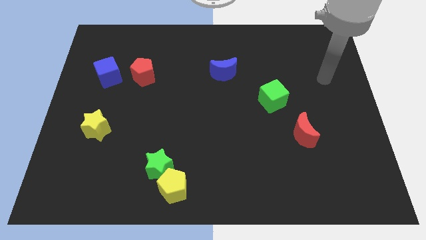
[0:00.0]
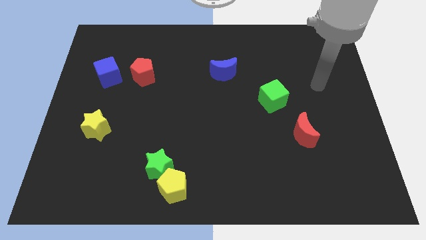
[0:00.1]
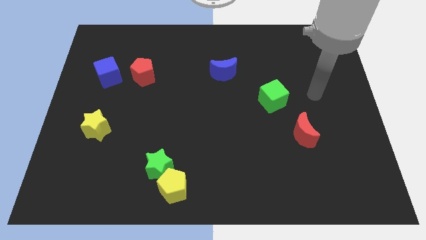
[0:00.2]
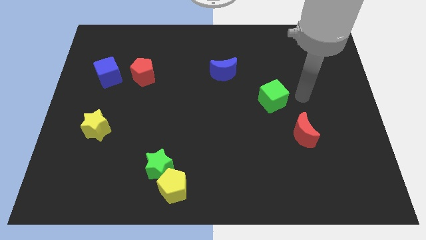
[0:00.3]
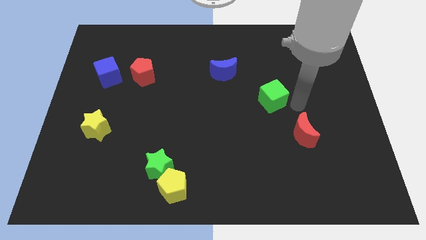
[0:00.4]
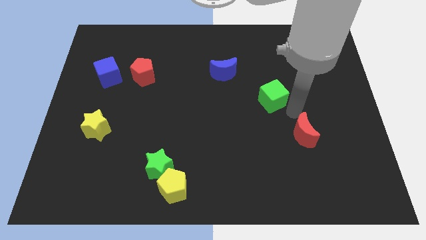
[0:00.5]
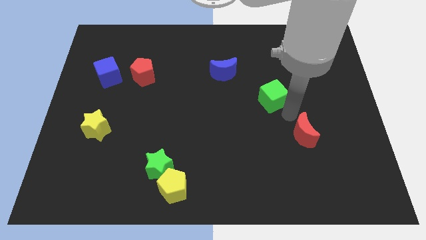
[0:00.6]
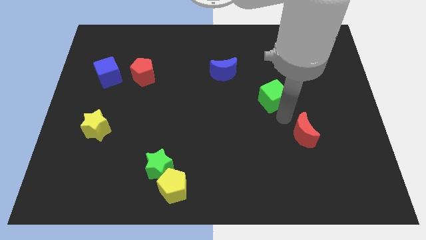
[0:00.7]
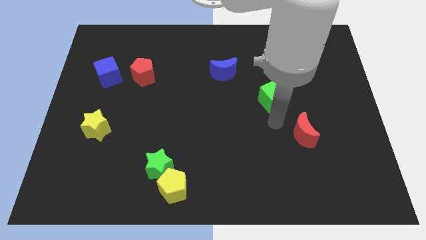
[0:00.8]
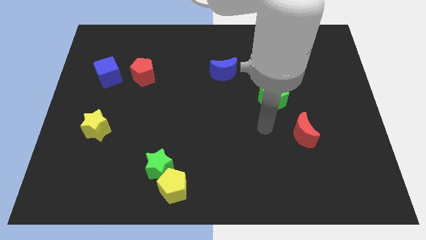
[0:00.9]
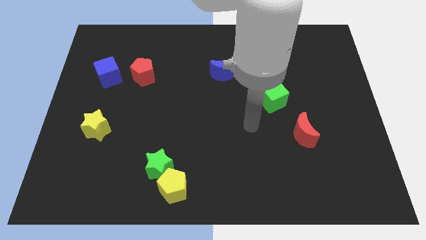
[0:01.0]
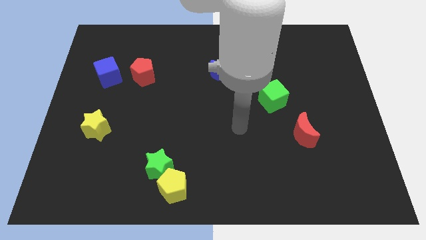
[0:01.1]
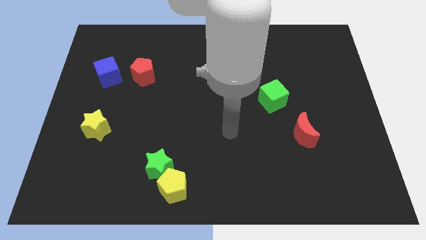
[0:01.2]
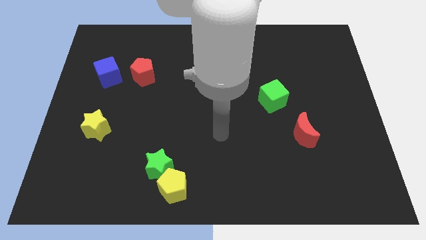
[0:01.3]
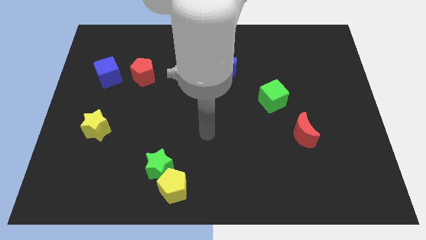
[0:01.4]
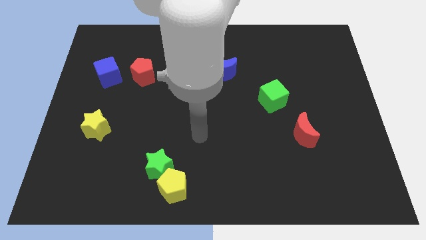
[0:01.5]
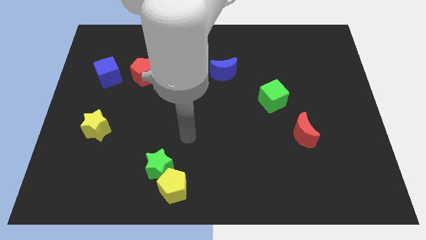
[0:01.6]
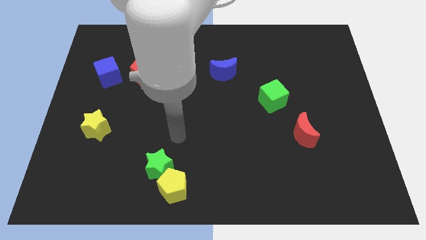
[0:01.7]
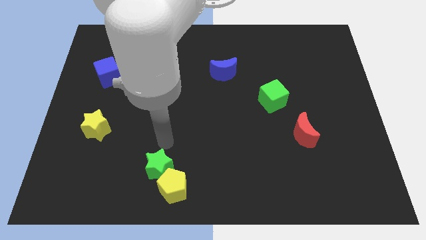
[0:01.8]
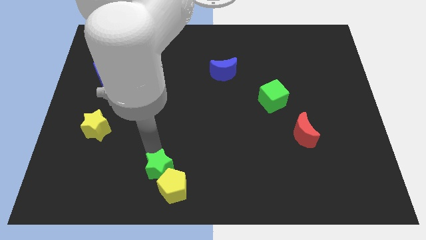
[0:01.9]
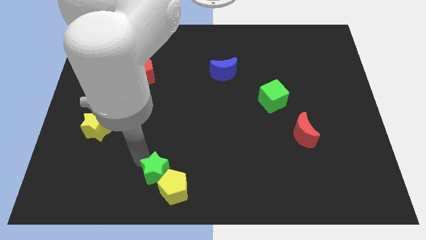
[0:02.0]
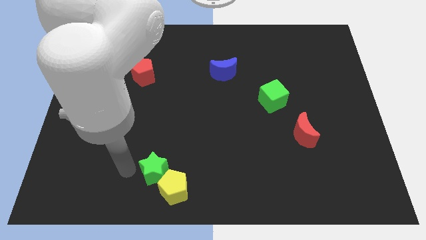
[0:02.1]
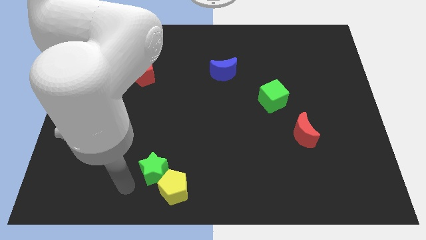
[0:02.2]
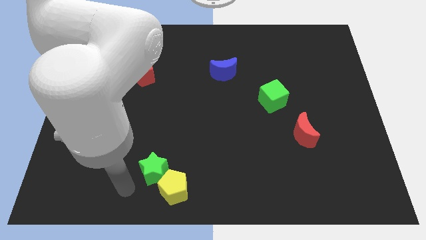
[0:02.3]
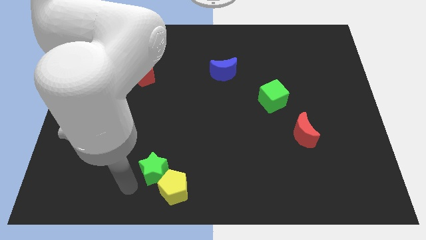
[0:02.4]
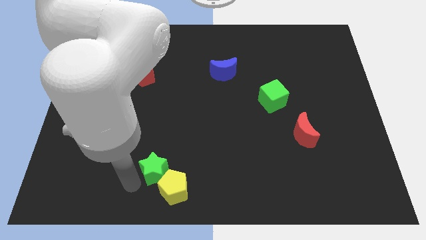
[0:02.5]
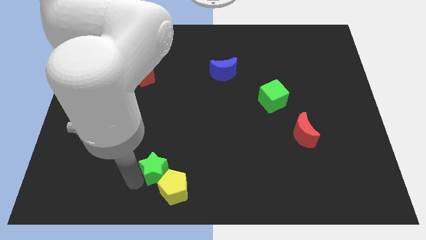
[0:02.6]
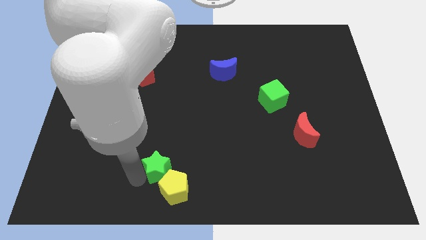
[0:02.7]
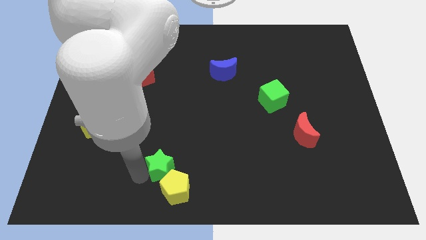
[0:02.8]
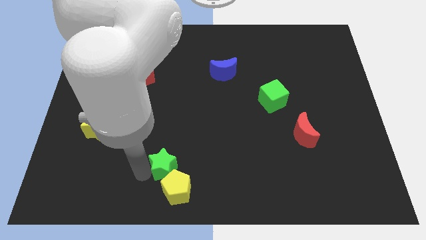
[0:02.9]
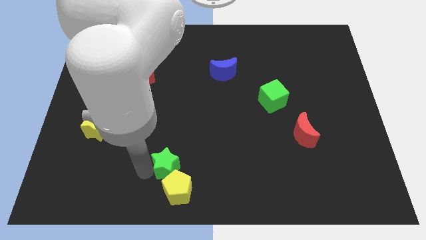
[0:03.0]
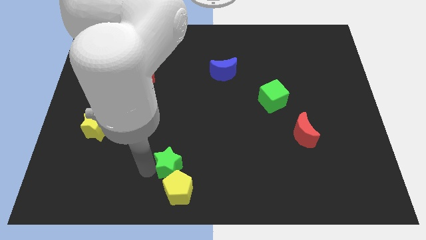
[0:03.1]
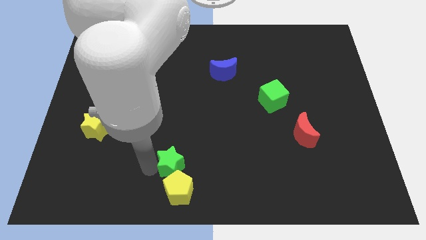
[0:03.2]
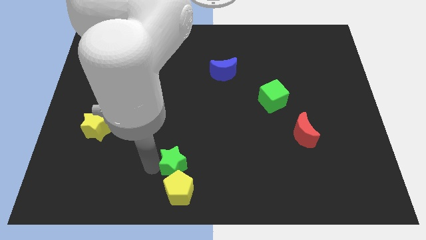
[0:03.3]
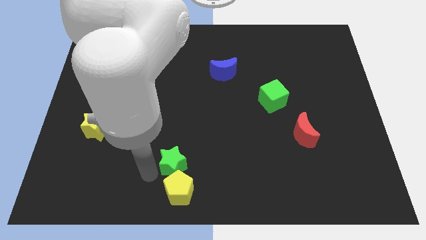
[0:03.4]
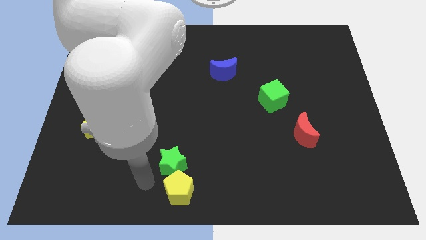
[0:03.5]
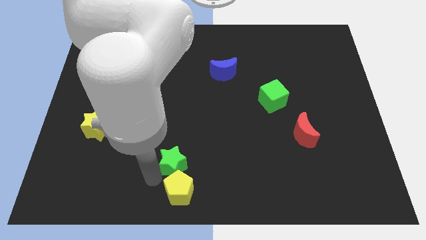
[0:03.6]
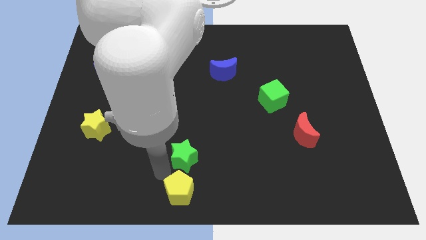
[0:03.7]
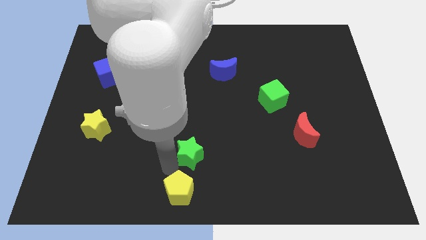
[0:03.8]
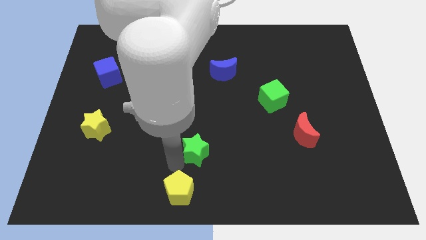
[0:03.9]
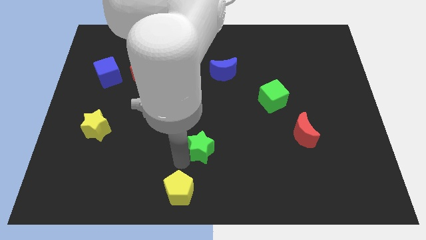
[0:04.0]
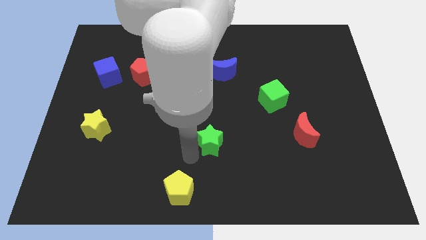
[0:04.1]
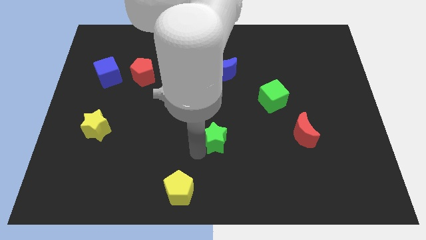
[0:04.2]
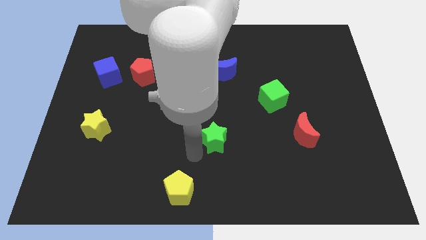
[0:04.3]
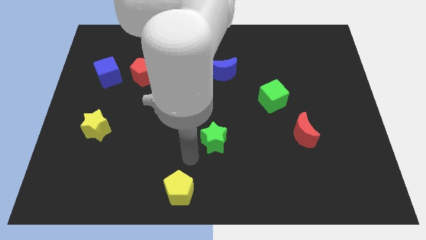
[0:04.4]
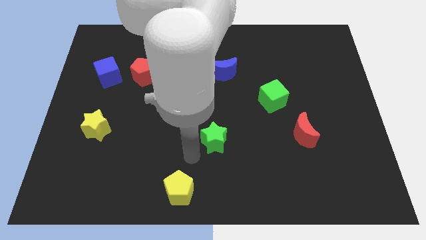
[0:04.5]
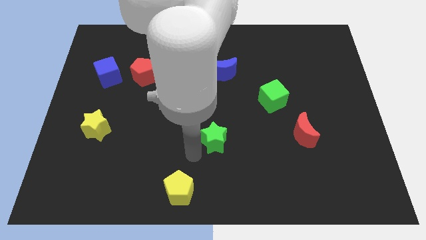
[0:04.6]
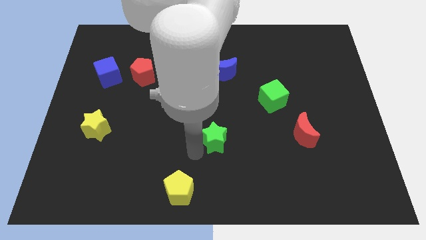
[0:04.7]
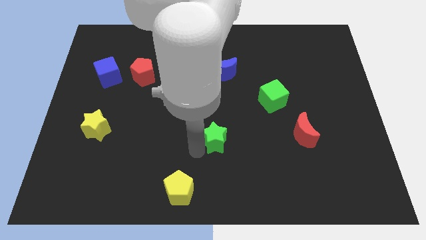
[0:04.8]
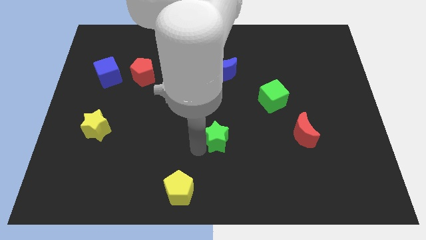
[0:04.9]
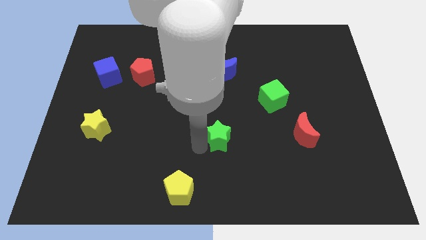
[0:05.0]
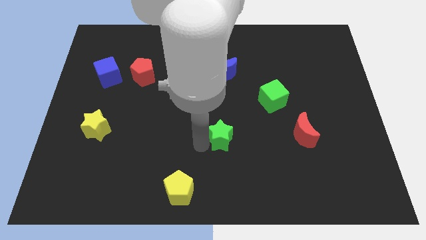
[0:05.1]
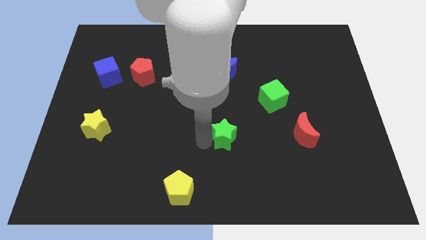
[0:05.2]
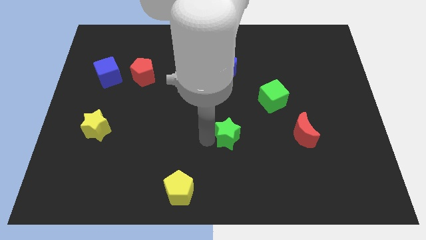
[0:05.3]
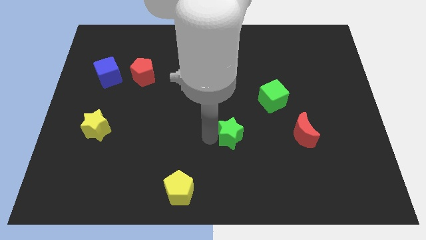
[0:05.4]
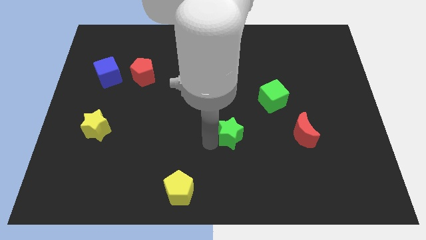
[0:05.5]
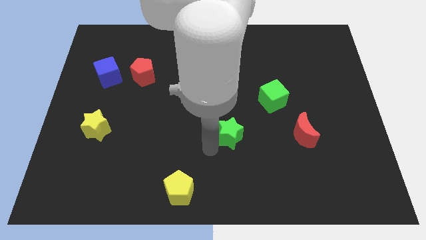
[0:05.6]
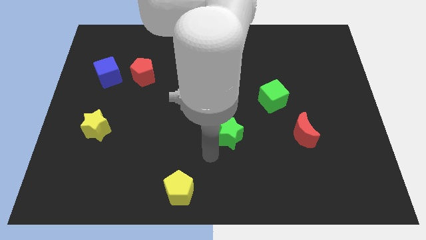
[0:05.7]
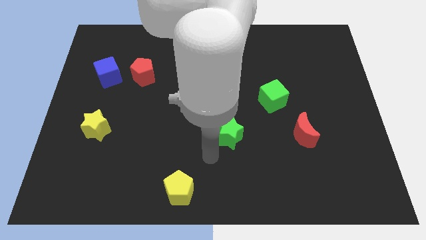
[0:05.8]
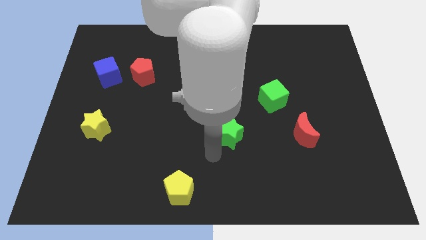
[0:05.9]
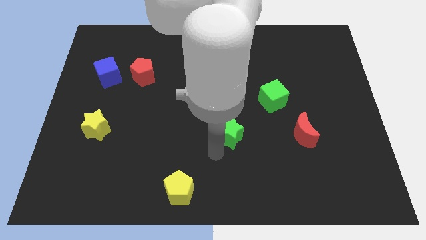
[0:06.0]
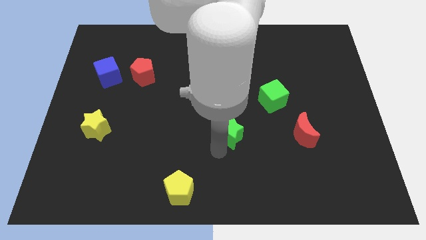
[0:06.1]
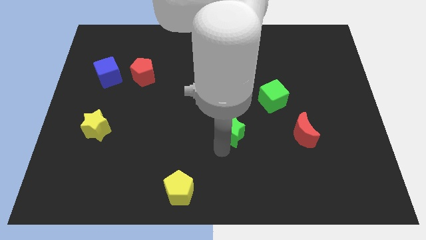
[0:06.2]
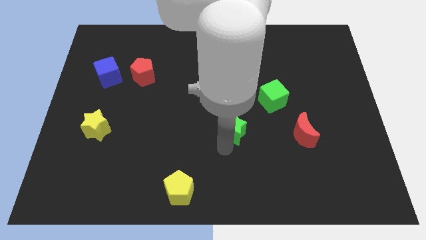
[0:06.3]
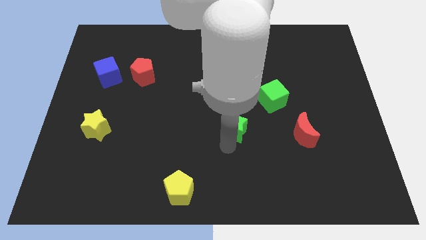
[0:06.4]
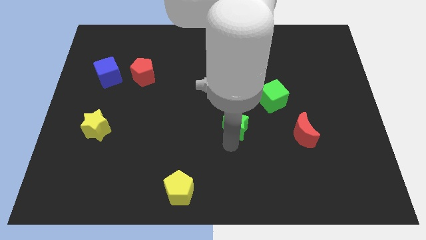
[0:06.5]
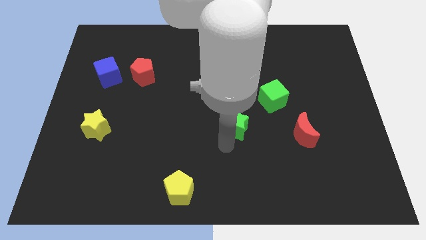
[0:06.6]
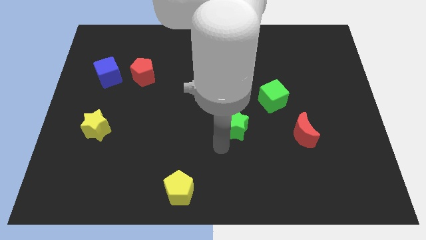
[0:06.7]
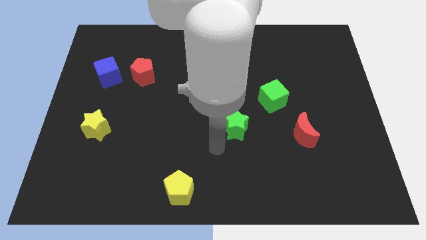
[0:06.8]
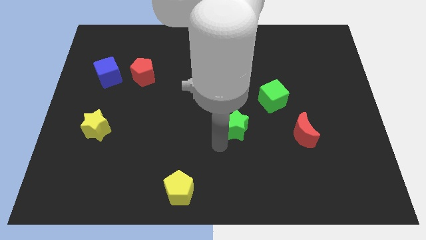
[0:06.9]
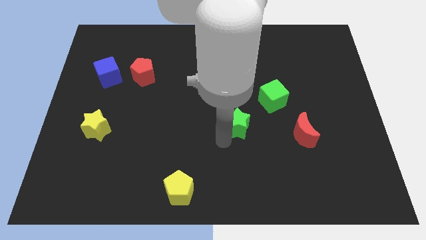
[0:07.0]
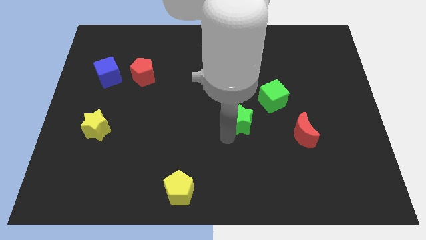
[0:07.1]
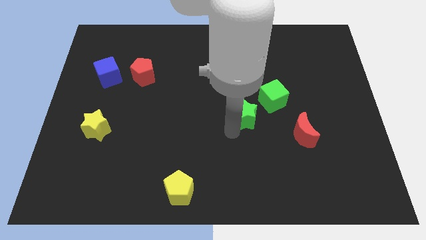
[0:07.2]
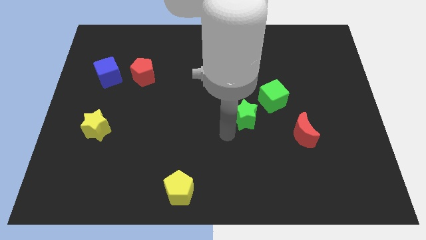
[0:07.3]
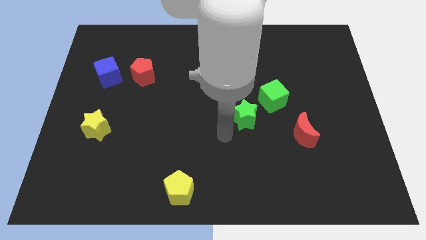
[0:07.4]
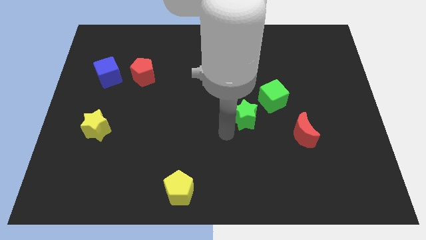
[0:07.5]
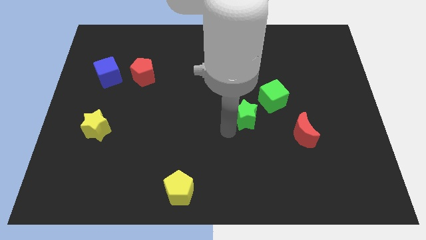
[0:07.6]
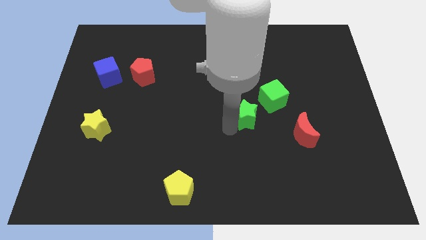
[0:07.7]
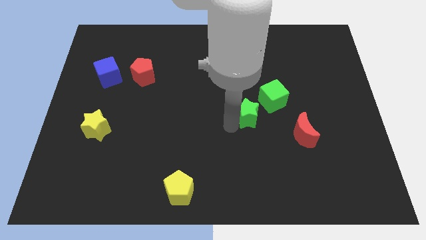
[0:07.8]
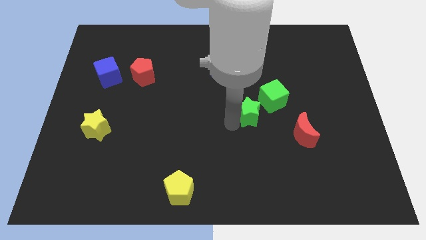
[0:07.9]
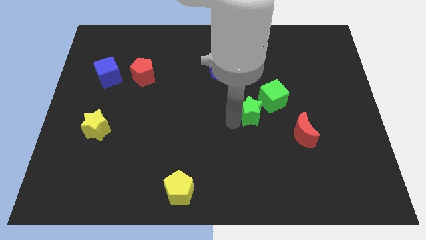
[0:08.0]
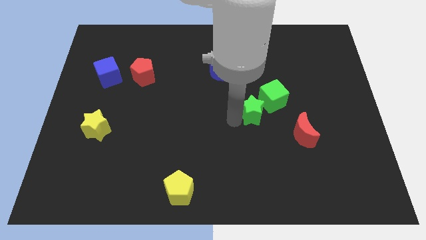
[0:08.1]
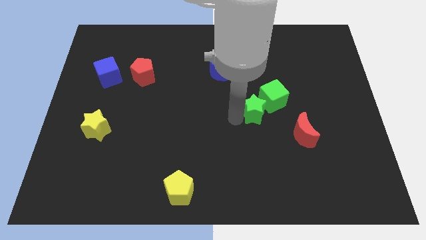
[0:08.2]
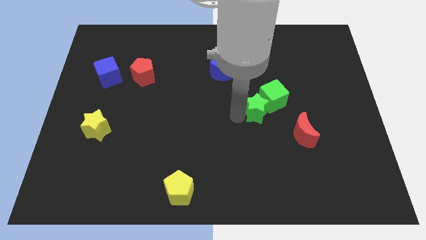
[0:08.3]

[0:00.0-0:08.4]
put the green star next to the green cube
